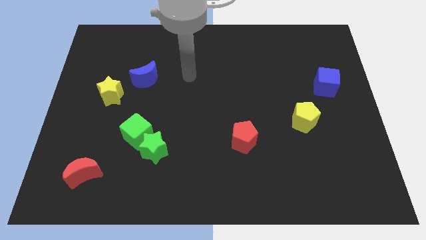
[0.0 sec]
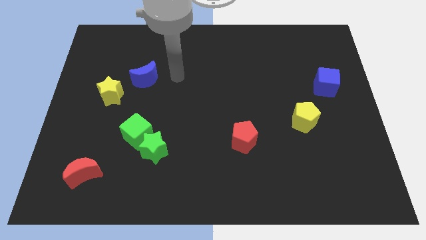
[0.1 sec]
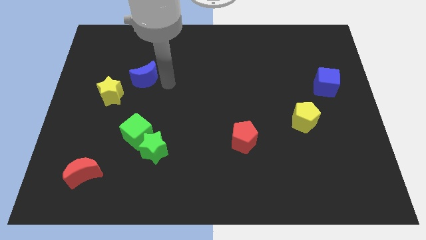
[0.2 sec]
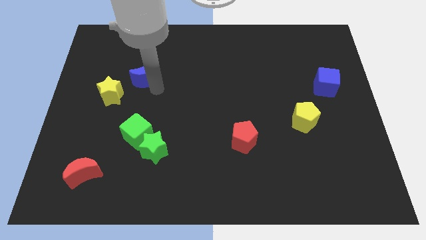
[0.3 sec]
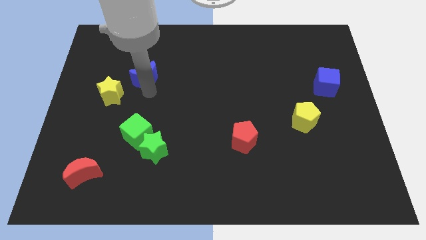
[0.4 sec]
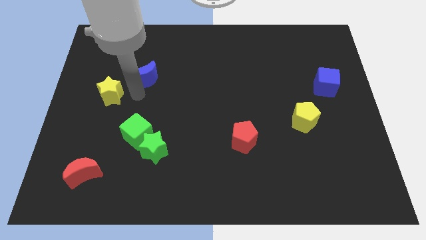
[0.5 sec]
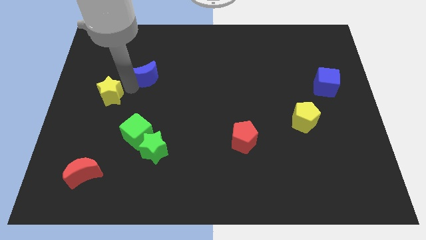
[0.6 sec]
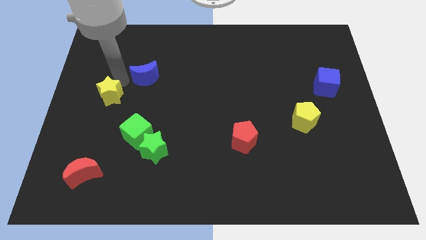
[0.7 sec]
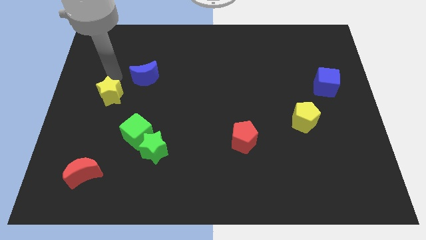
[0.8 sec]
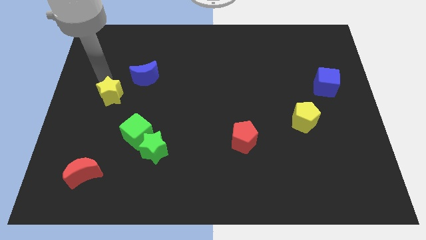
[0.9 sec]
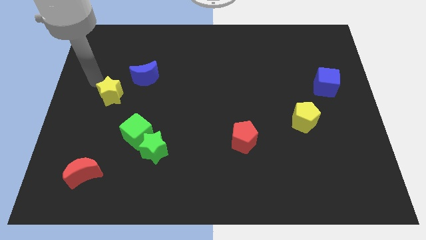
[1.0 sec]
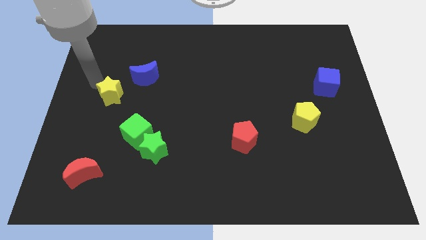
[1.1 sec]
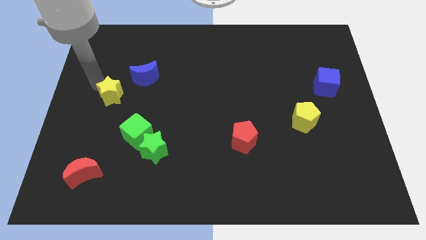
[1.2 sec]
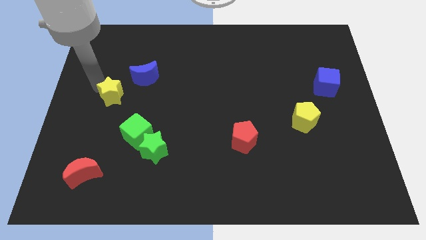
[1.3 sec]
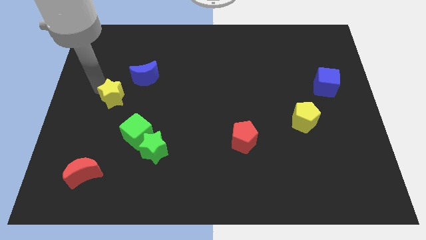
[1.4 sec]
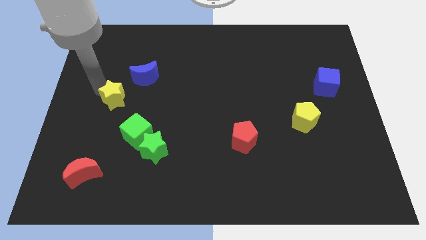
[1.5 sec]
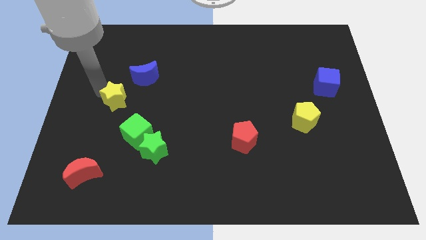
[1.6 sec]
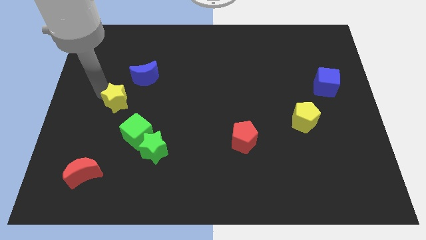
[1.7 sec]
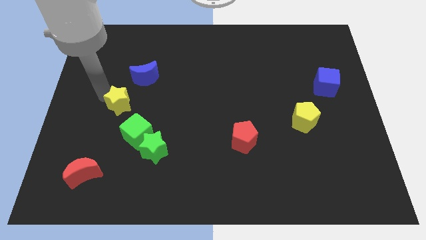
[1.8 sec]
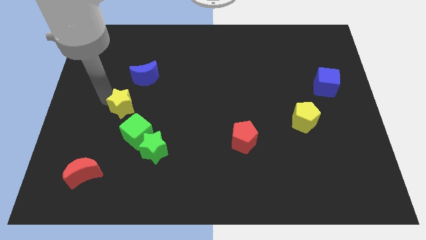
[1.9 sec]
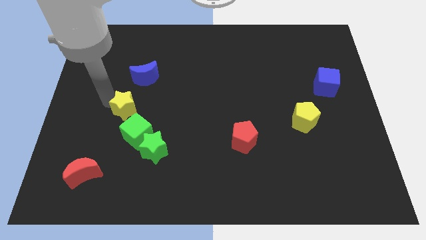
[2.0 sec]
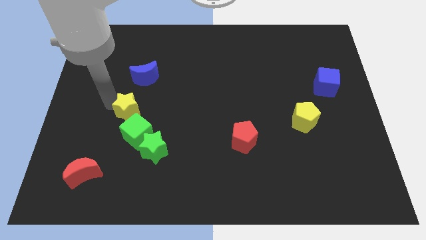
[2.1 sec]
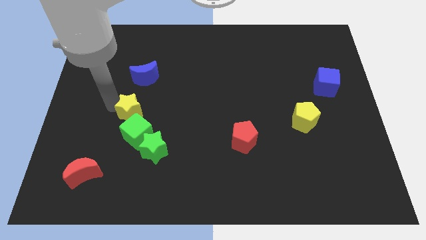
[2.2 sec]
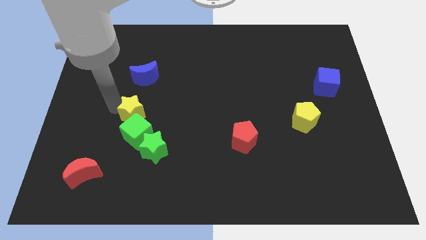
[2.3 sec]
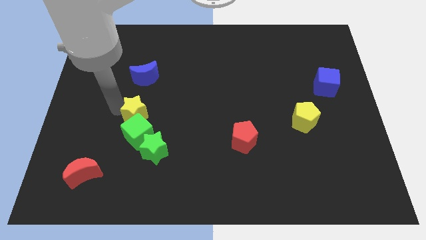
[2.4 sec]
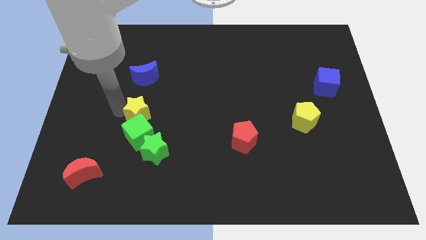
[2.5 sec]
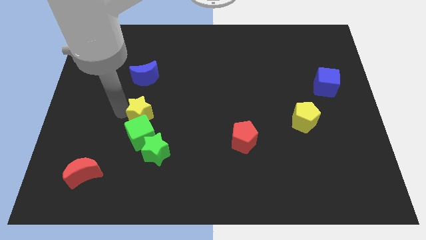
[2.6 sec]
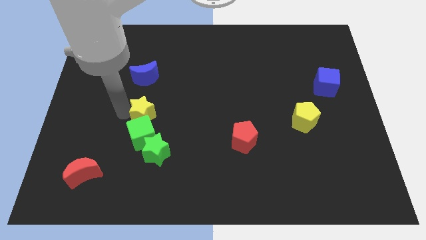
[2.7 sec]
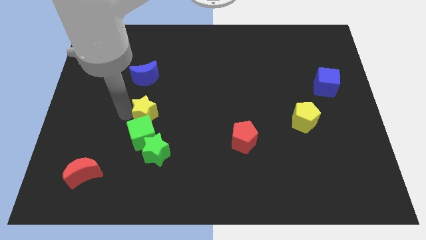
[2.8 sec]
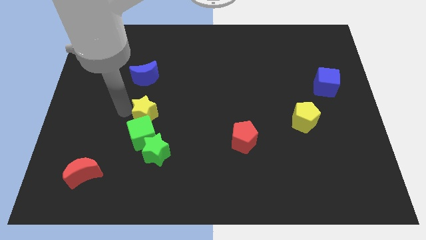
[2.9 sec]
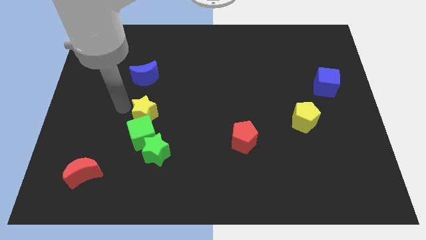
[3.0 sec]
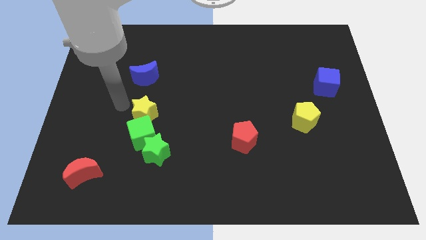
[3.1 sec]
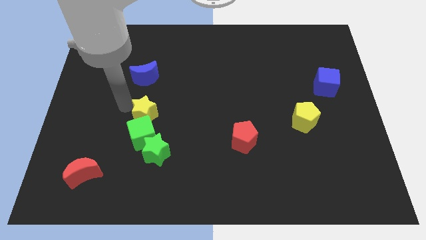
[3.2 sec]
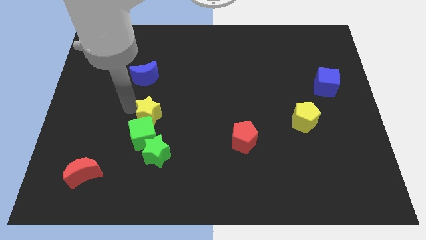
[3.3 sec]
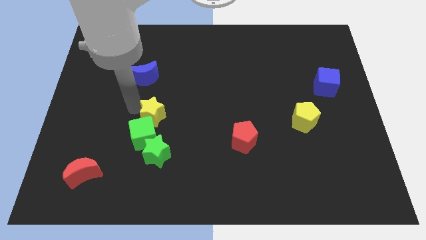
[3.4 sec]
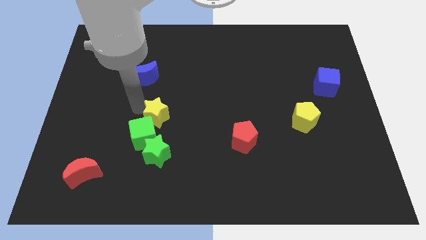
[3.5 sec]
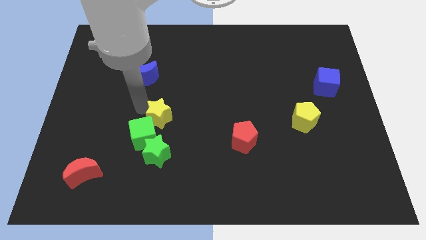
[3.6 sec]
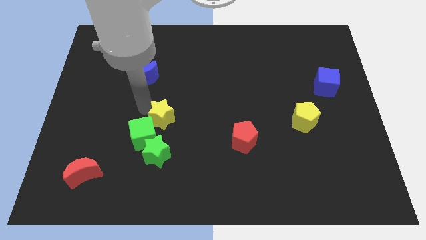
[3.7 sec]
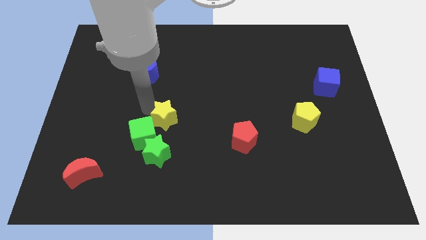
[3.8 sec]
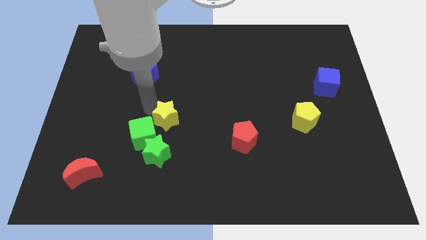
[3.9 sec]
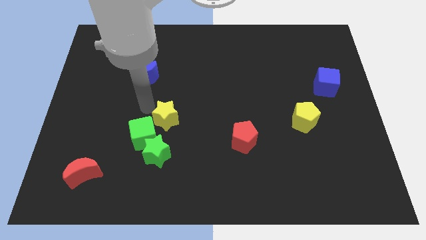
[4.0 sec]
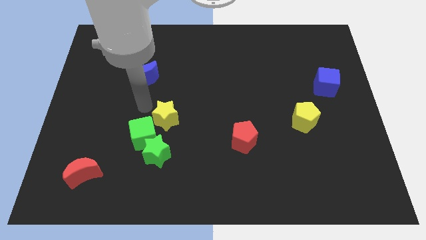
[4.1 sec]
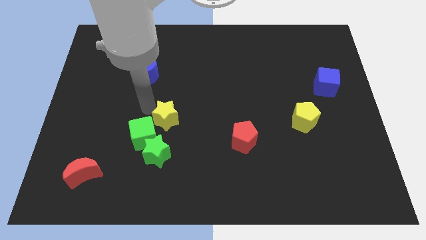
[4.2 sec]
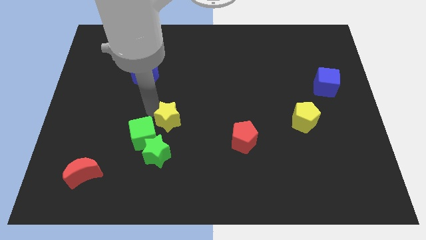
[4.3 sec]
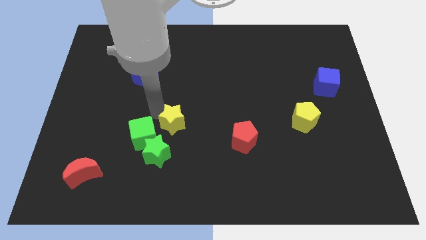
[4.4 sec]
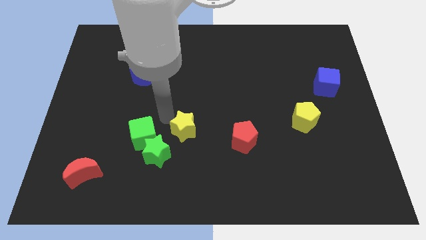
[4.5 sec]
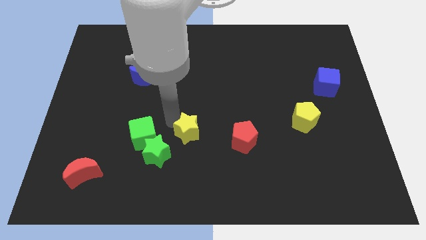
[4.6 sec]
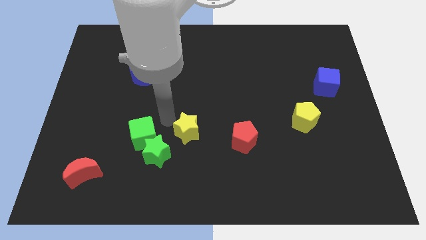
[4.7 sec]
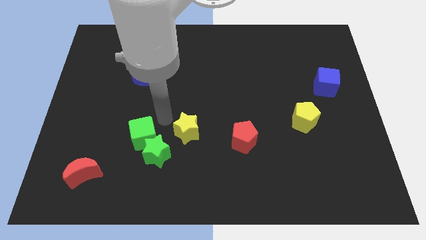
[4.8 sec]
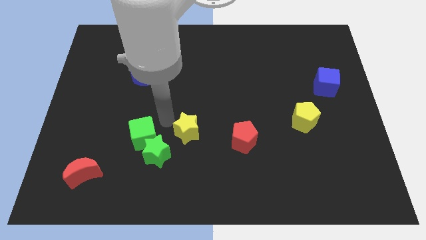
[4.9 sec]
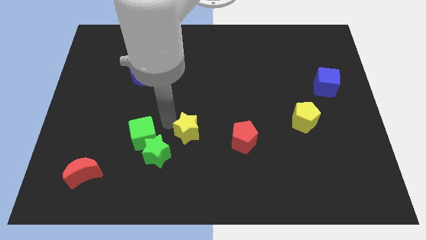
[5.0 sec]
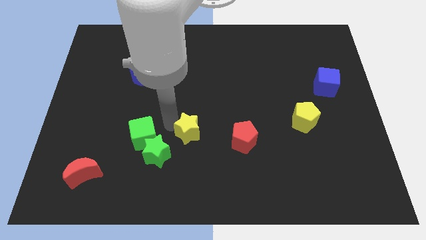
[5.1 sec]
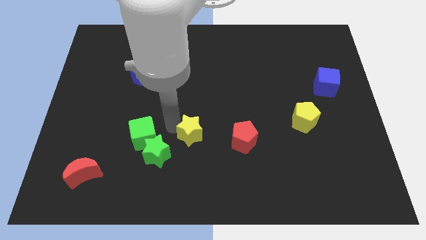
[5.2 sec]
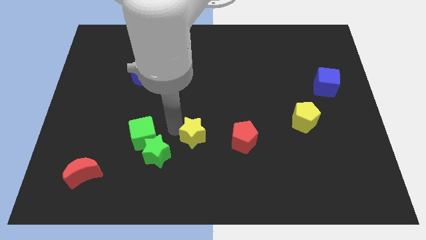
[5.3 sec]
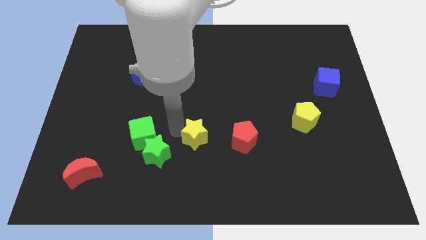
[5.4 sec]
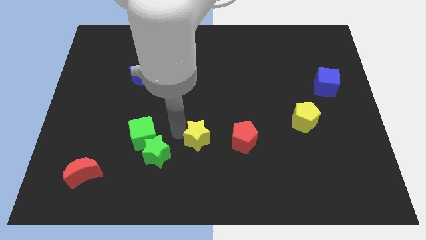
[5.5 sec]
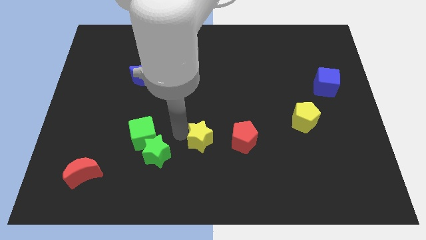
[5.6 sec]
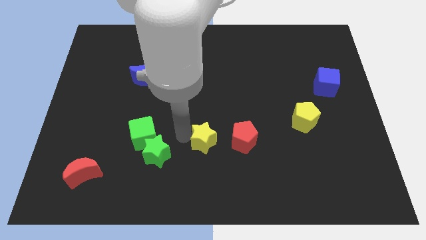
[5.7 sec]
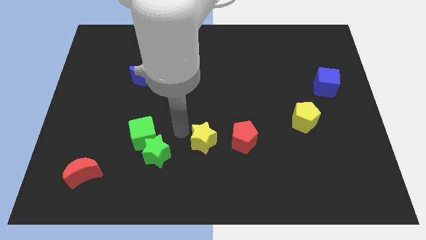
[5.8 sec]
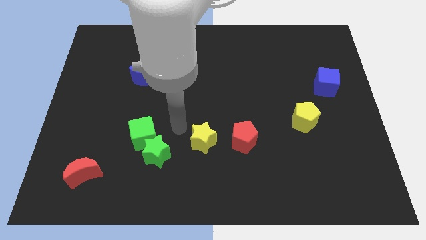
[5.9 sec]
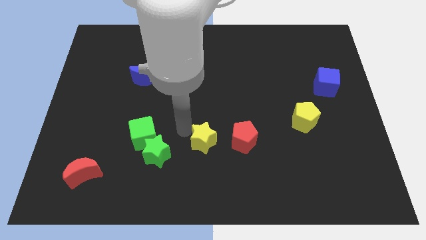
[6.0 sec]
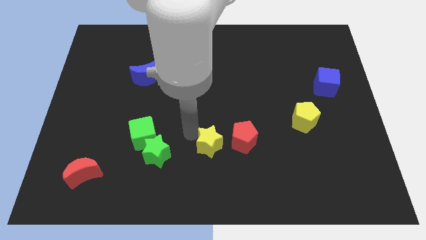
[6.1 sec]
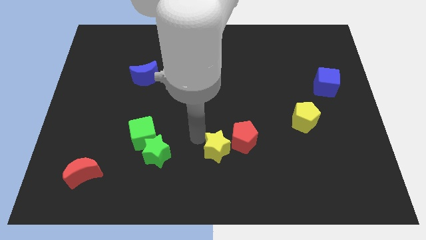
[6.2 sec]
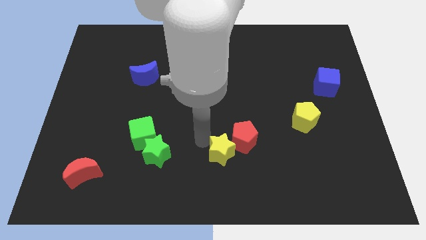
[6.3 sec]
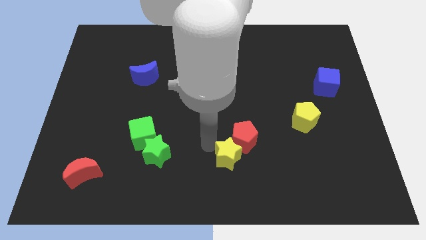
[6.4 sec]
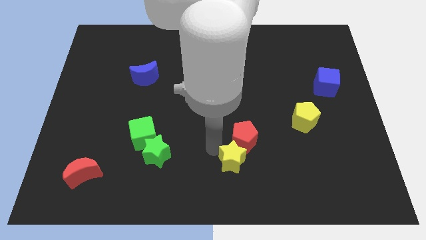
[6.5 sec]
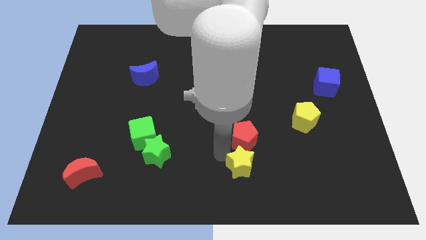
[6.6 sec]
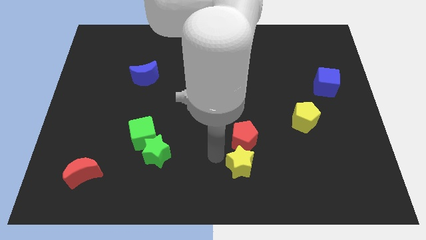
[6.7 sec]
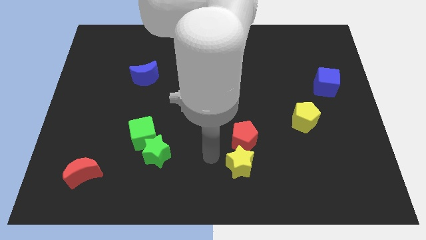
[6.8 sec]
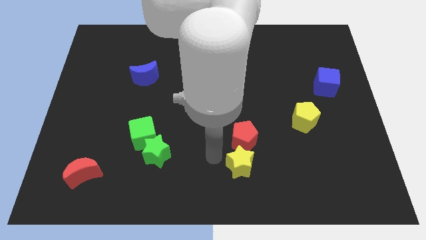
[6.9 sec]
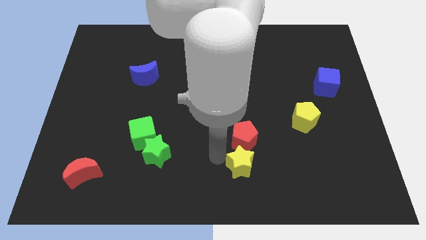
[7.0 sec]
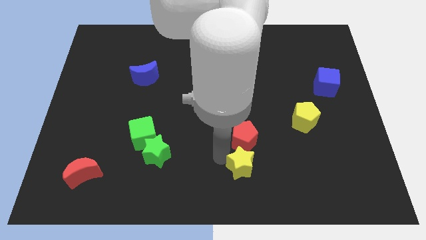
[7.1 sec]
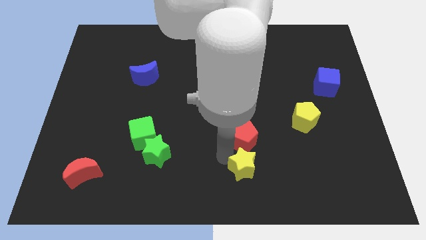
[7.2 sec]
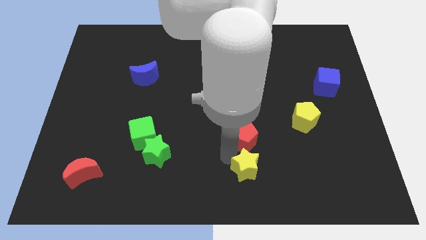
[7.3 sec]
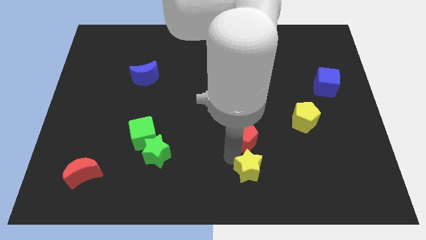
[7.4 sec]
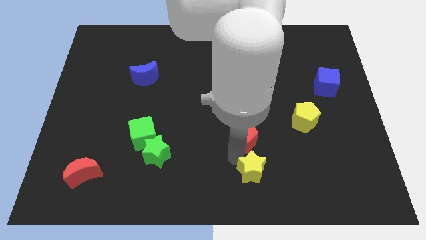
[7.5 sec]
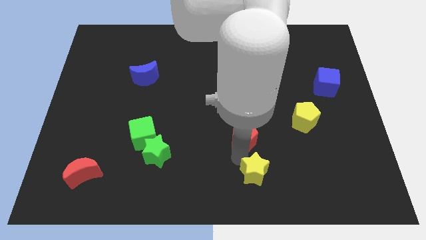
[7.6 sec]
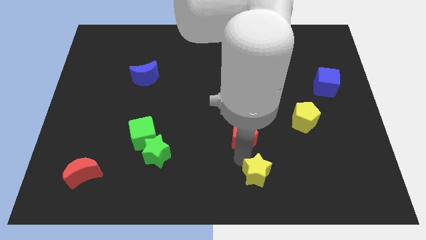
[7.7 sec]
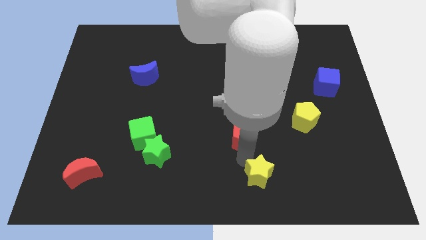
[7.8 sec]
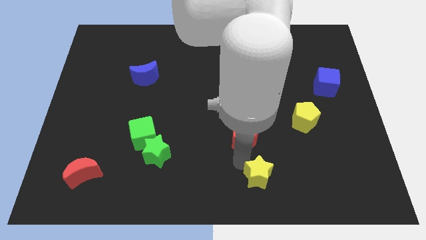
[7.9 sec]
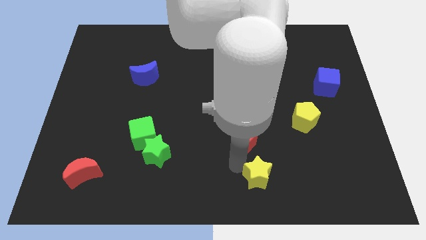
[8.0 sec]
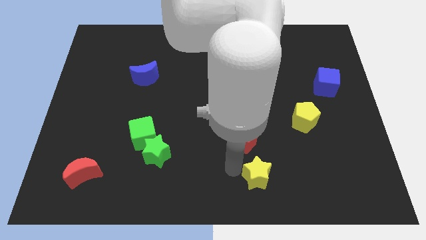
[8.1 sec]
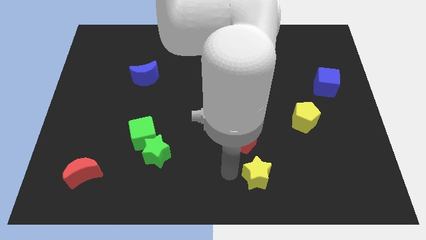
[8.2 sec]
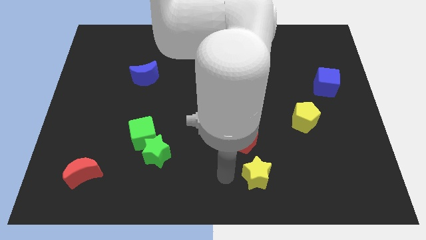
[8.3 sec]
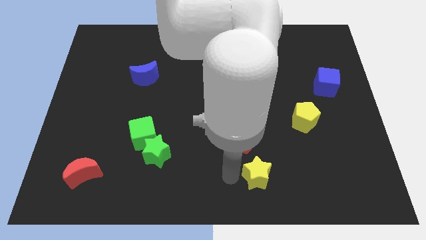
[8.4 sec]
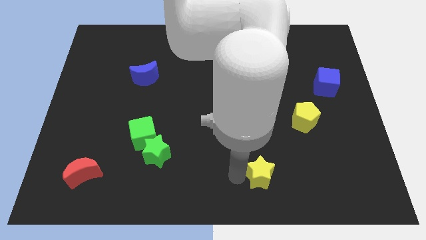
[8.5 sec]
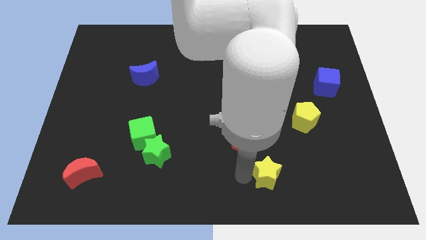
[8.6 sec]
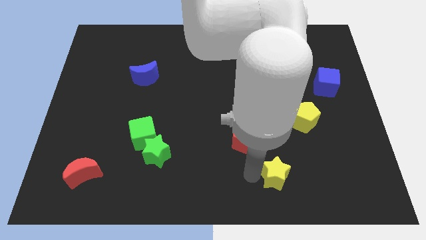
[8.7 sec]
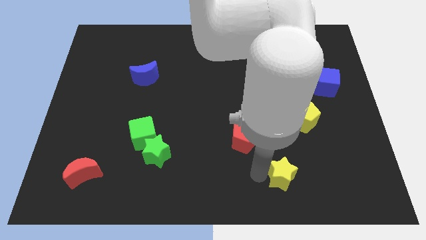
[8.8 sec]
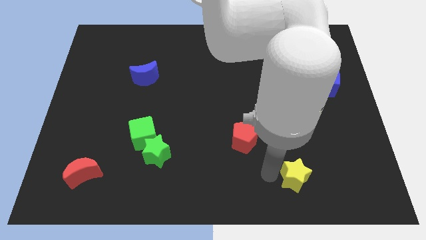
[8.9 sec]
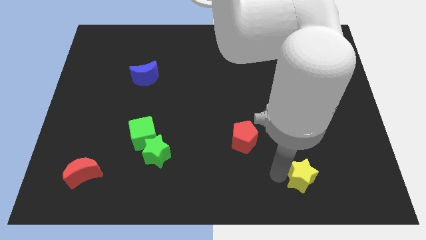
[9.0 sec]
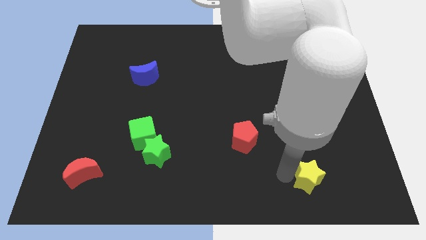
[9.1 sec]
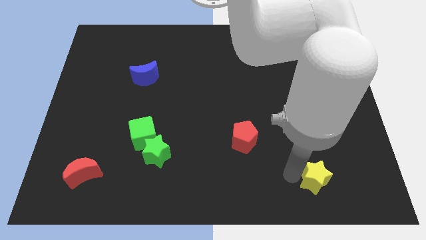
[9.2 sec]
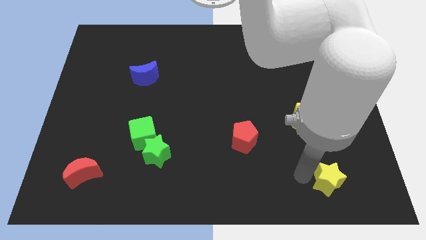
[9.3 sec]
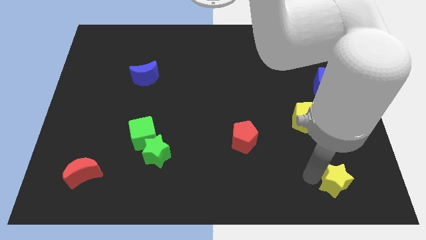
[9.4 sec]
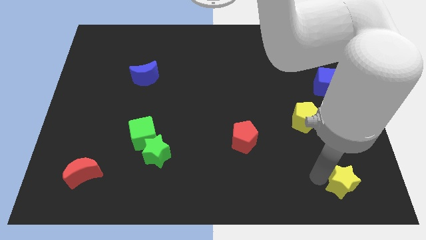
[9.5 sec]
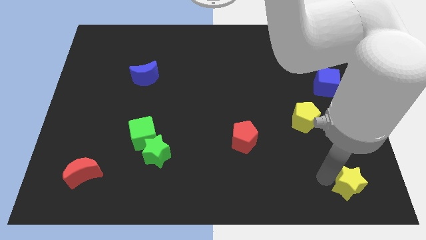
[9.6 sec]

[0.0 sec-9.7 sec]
put the yellow star to the bottom right
